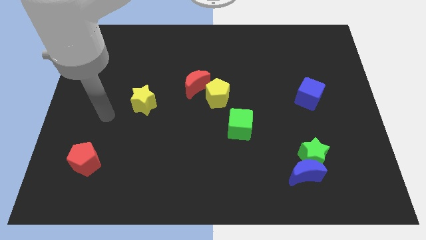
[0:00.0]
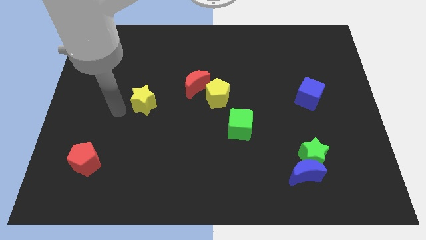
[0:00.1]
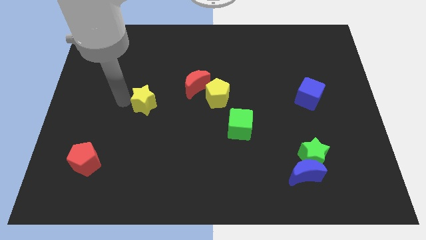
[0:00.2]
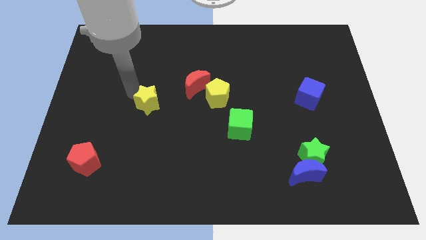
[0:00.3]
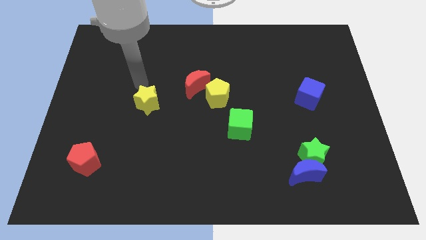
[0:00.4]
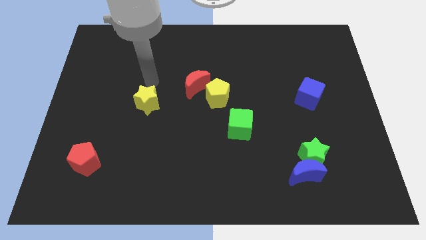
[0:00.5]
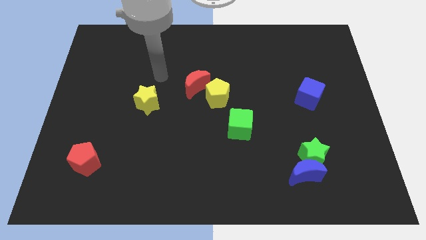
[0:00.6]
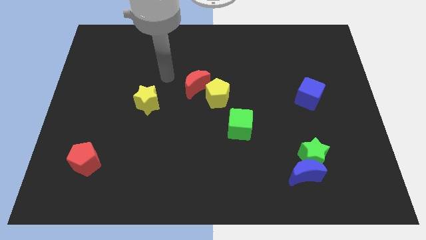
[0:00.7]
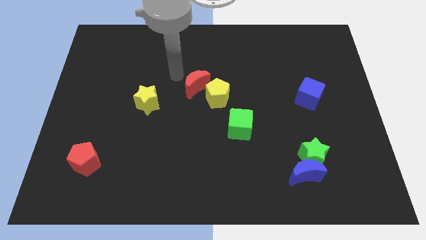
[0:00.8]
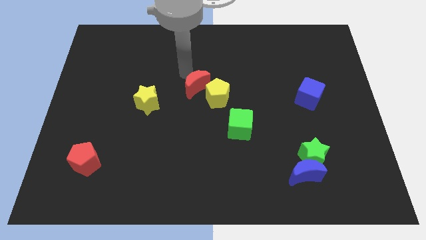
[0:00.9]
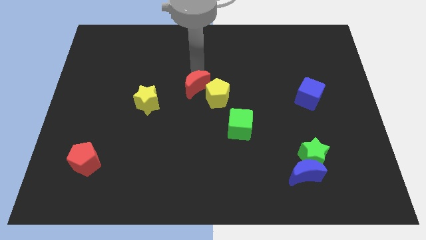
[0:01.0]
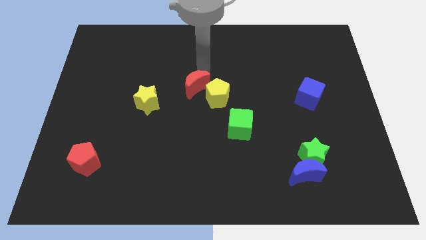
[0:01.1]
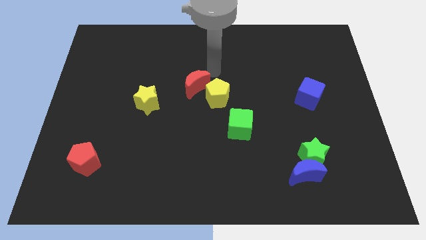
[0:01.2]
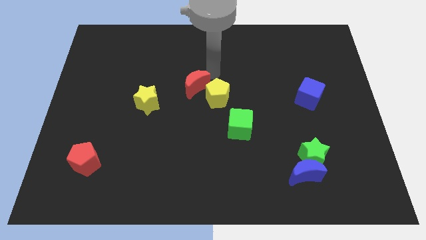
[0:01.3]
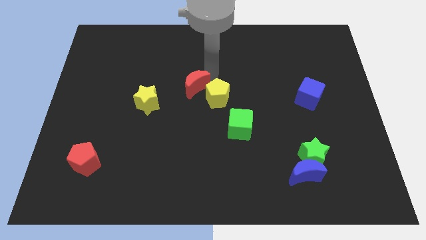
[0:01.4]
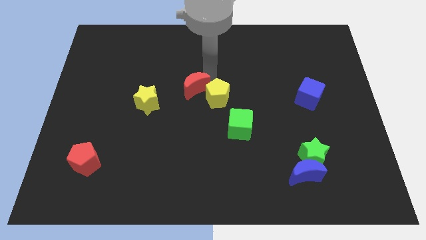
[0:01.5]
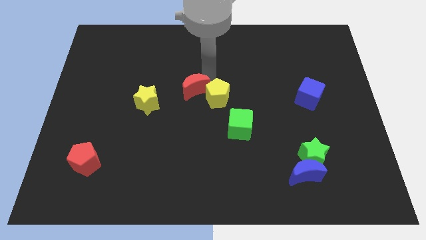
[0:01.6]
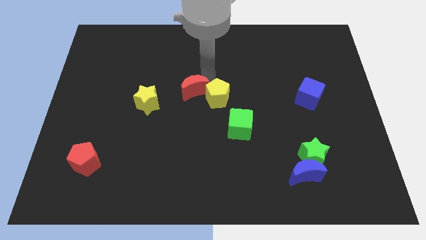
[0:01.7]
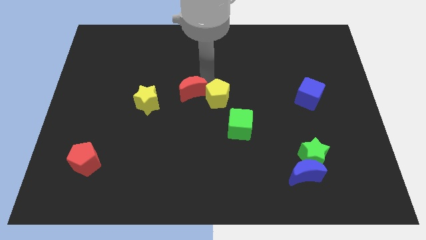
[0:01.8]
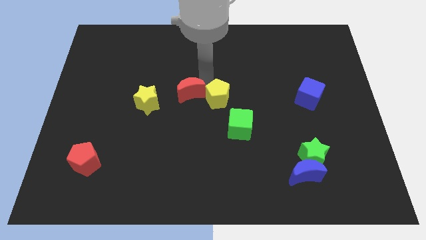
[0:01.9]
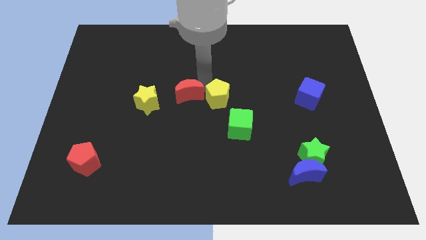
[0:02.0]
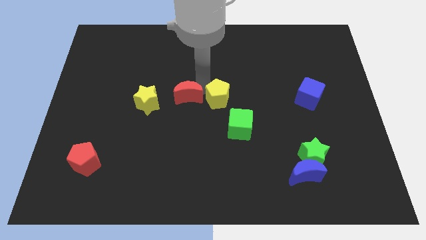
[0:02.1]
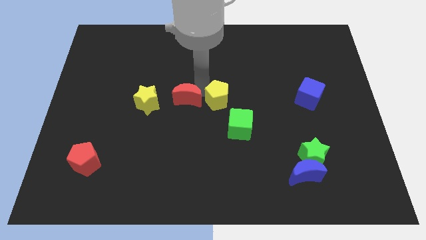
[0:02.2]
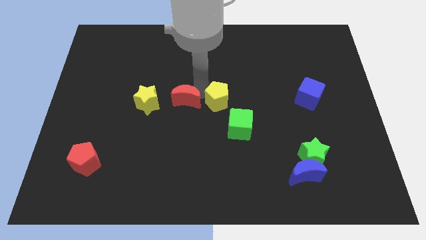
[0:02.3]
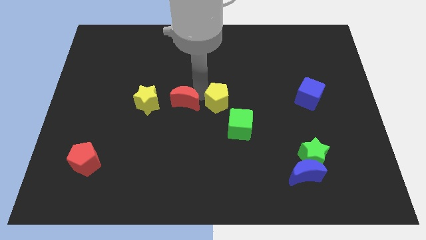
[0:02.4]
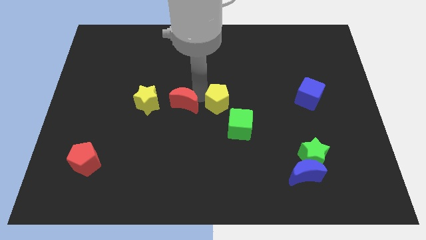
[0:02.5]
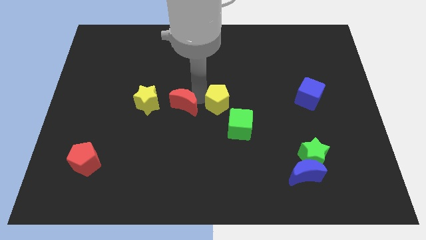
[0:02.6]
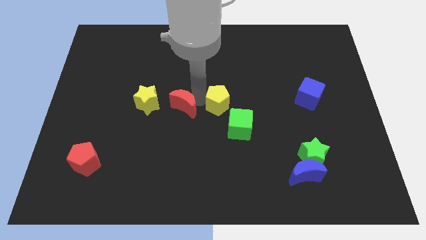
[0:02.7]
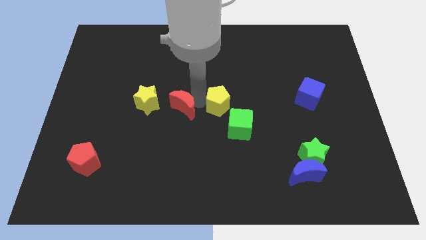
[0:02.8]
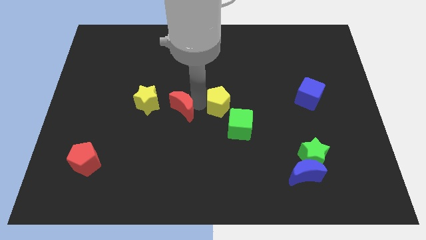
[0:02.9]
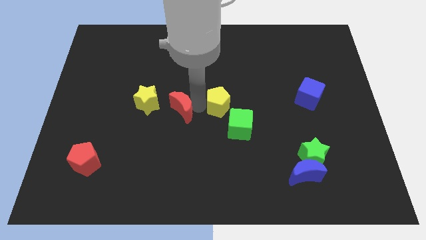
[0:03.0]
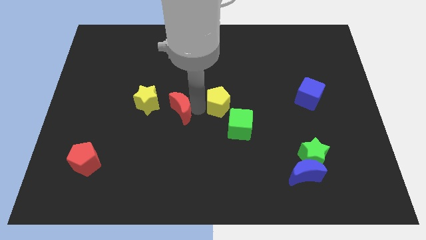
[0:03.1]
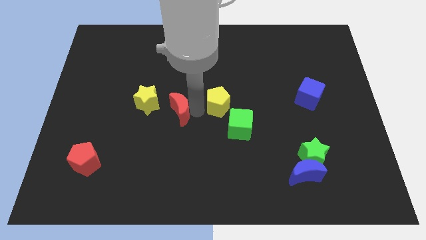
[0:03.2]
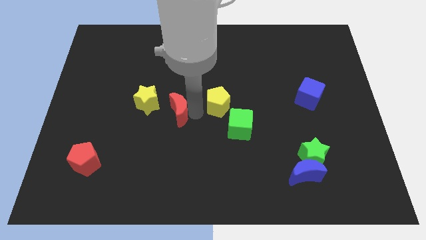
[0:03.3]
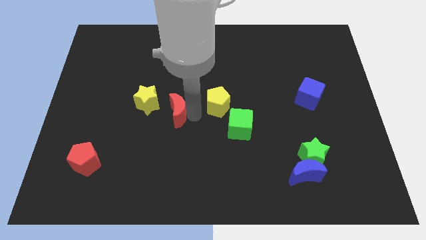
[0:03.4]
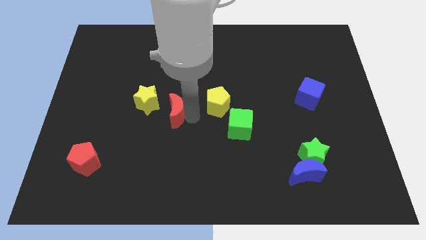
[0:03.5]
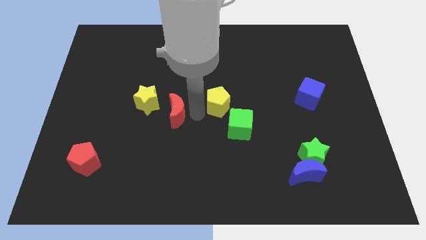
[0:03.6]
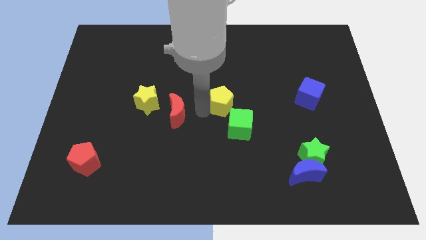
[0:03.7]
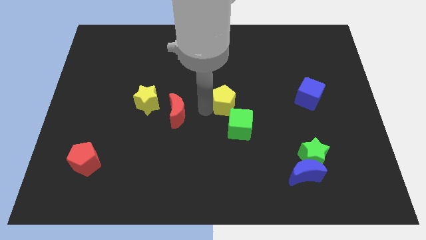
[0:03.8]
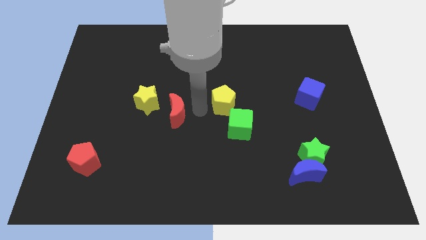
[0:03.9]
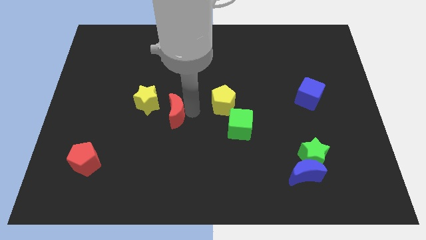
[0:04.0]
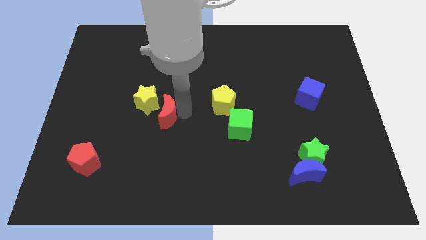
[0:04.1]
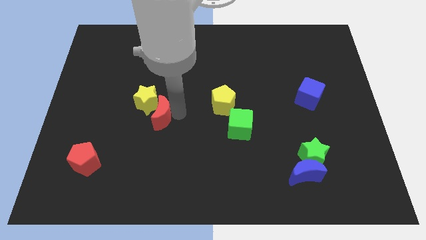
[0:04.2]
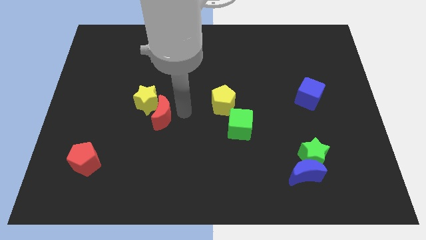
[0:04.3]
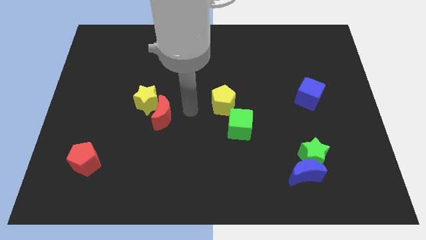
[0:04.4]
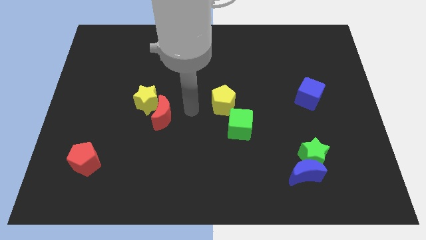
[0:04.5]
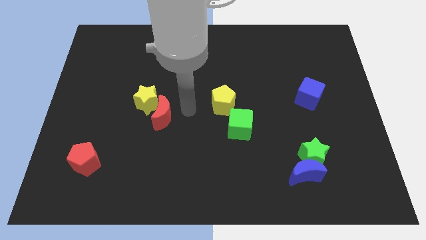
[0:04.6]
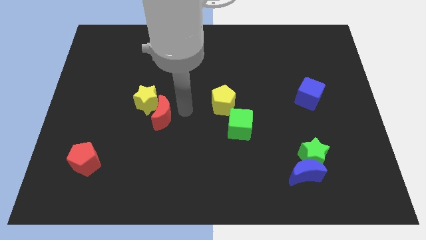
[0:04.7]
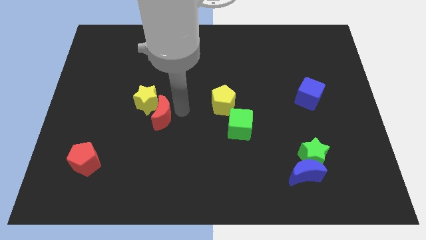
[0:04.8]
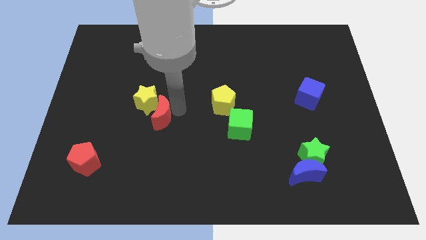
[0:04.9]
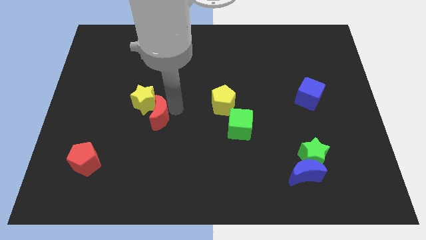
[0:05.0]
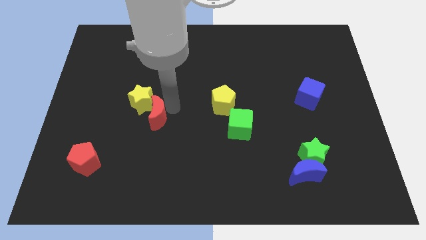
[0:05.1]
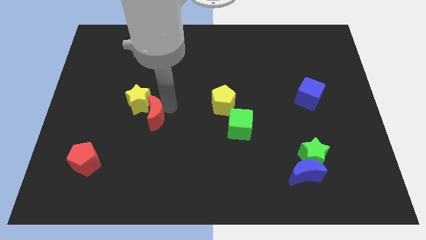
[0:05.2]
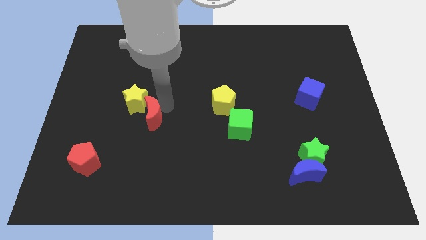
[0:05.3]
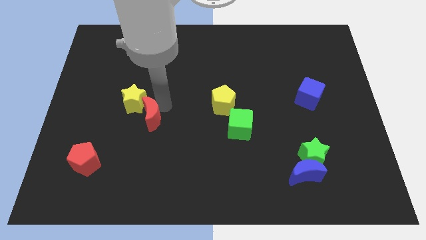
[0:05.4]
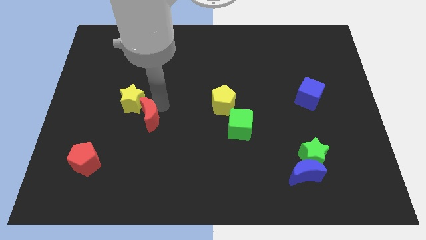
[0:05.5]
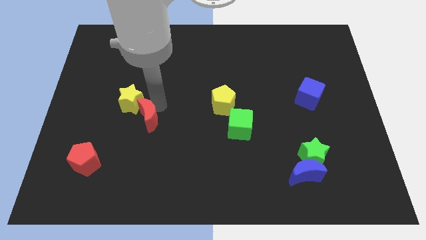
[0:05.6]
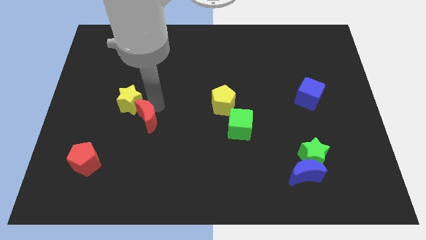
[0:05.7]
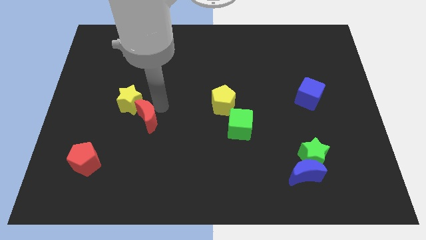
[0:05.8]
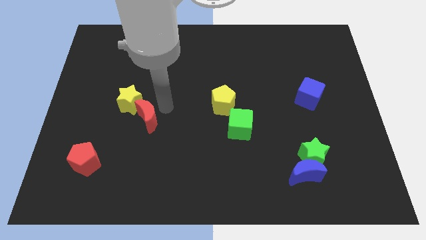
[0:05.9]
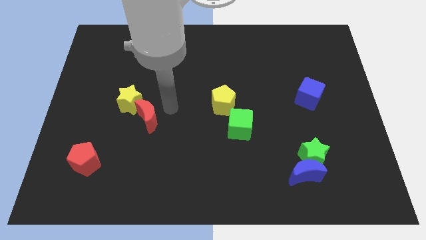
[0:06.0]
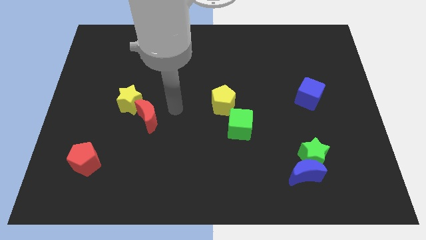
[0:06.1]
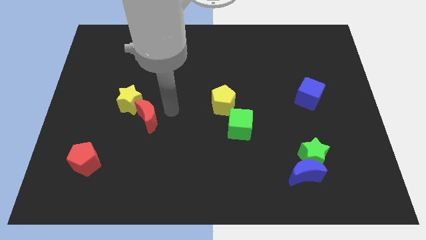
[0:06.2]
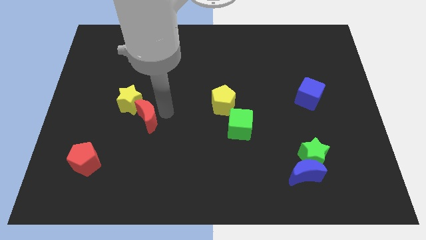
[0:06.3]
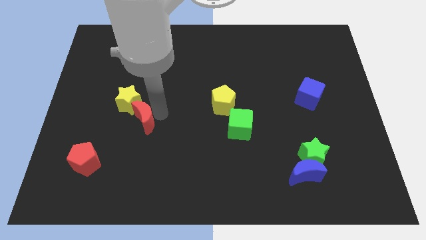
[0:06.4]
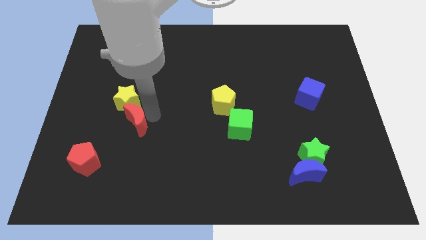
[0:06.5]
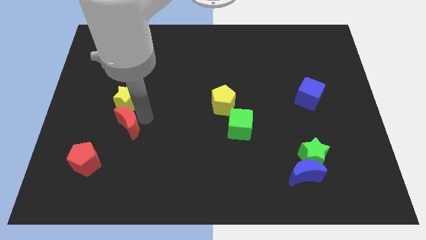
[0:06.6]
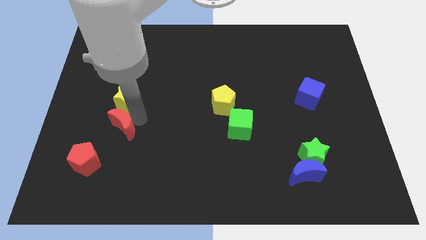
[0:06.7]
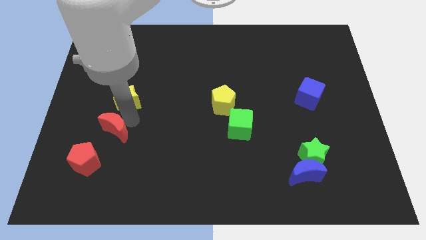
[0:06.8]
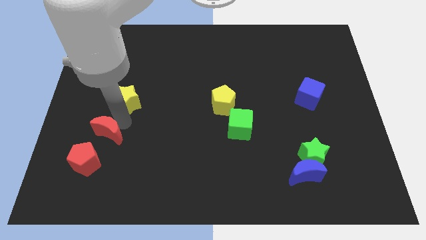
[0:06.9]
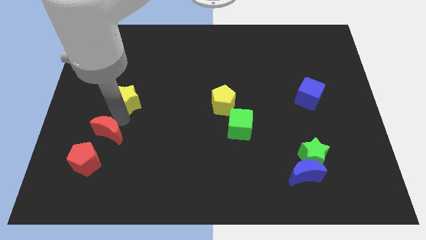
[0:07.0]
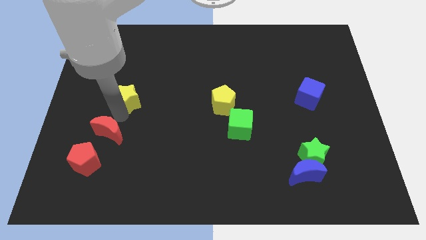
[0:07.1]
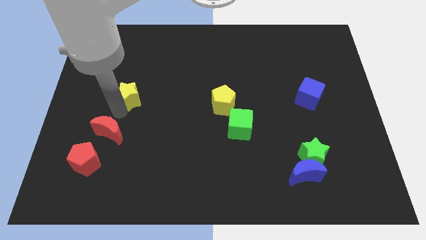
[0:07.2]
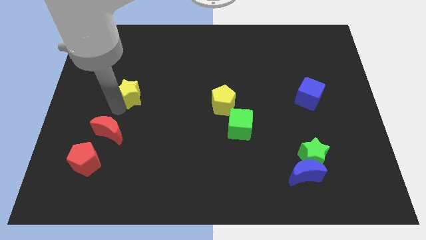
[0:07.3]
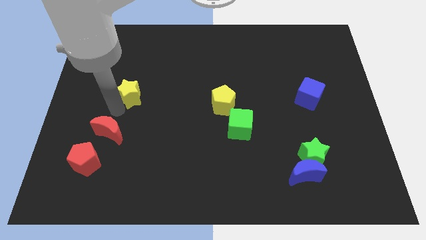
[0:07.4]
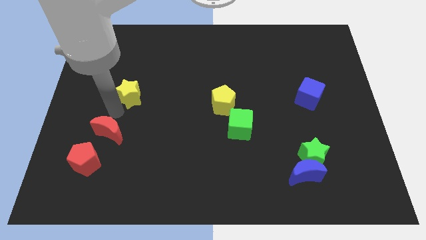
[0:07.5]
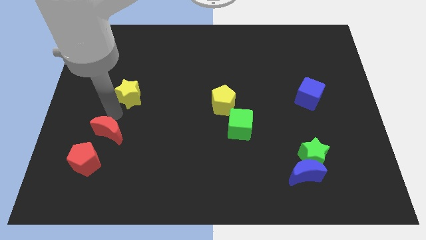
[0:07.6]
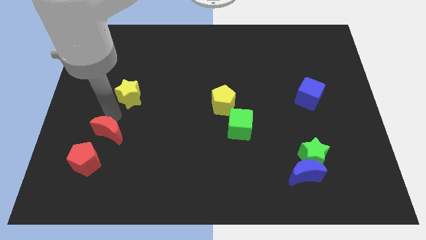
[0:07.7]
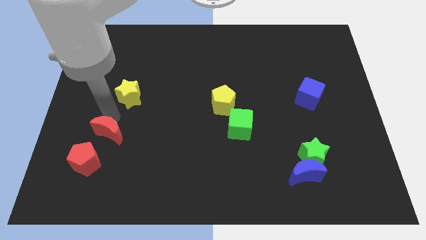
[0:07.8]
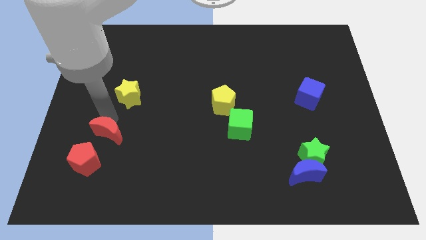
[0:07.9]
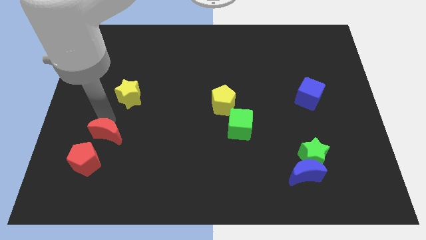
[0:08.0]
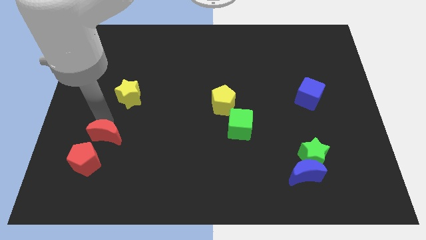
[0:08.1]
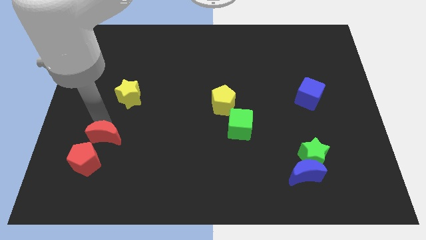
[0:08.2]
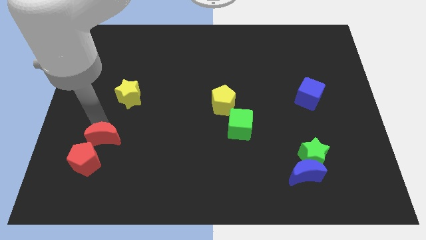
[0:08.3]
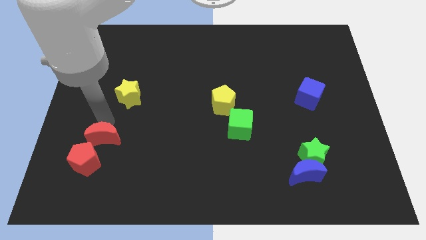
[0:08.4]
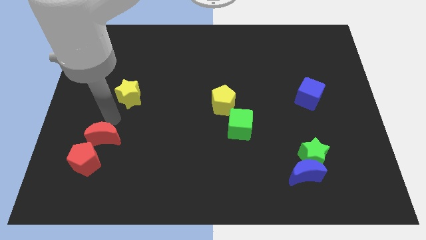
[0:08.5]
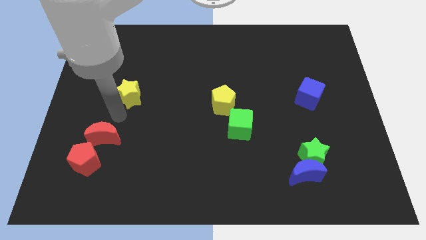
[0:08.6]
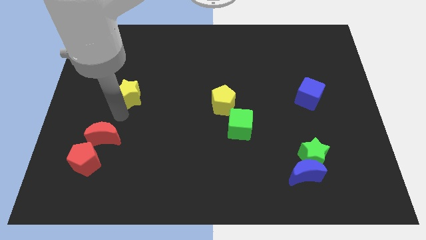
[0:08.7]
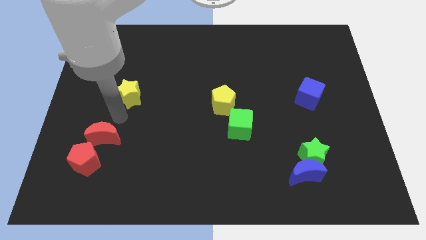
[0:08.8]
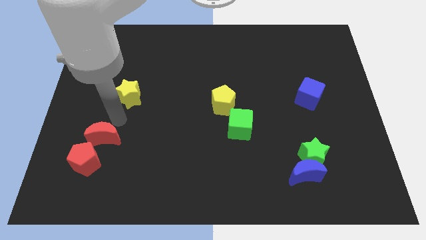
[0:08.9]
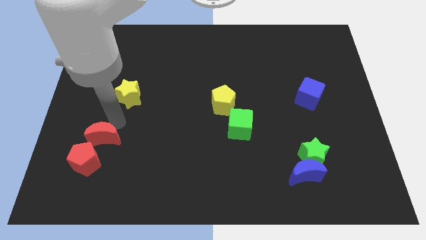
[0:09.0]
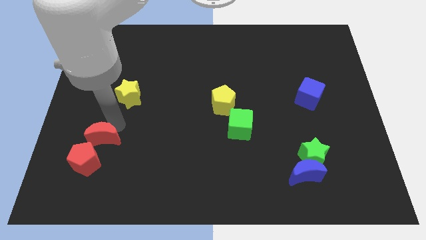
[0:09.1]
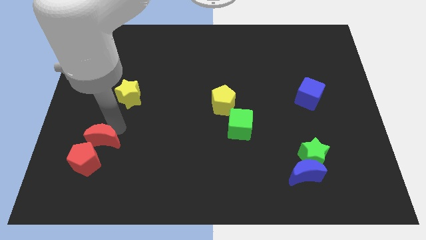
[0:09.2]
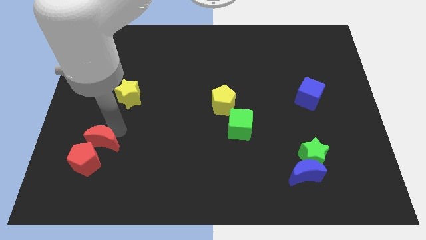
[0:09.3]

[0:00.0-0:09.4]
slide the red moon close to the red pentagon
